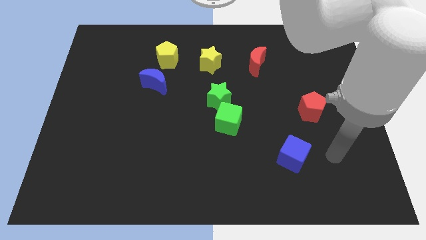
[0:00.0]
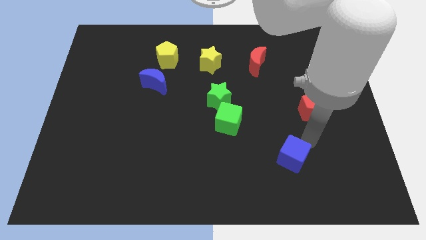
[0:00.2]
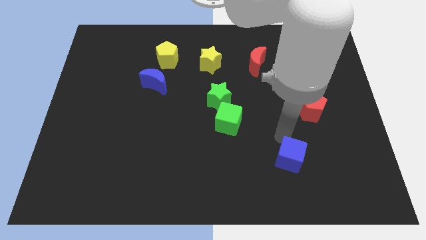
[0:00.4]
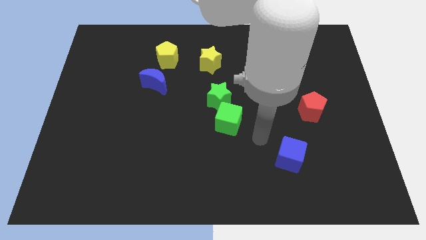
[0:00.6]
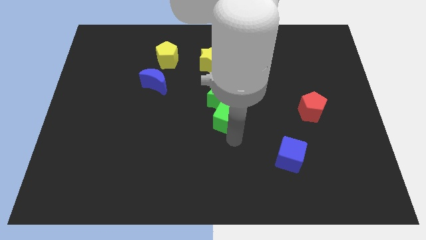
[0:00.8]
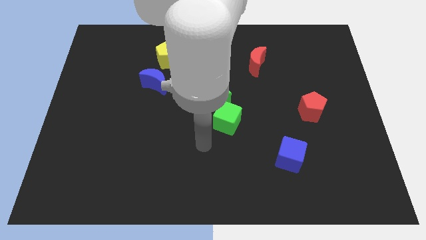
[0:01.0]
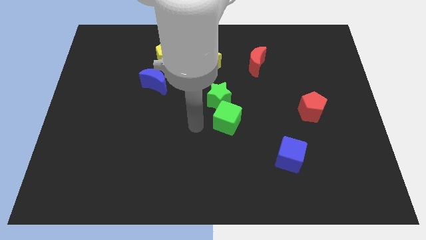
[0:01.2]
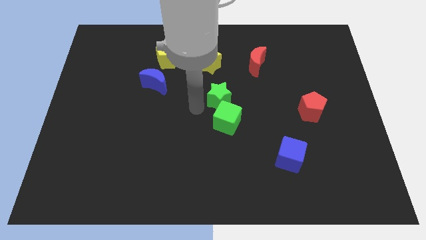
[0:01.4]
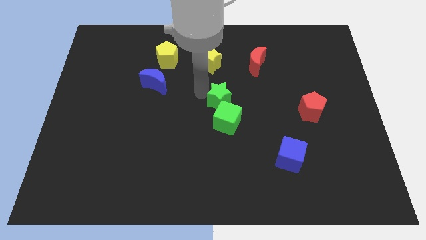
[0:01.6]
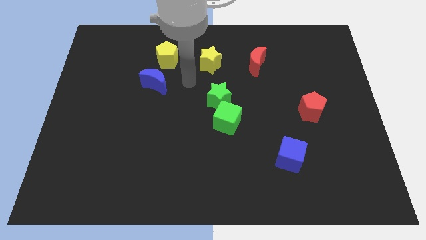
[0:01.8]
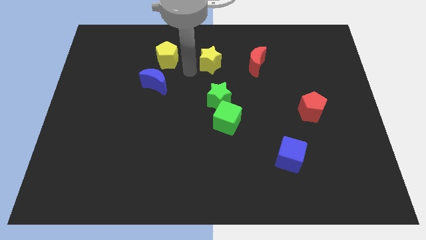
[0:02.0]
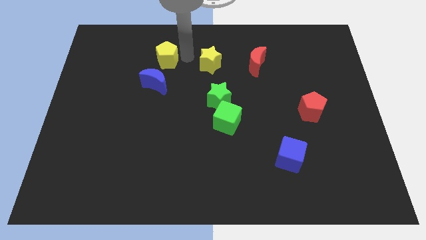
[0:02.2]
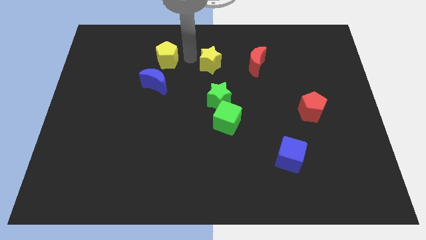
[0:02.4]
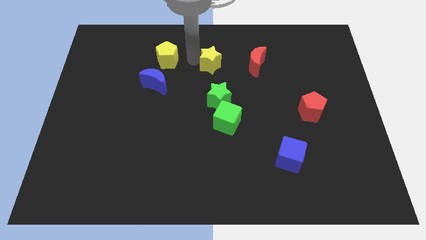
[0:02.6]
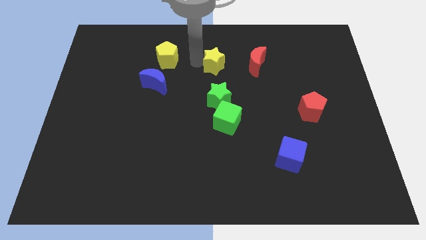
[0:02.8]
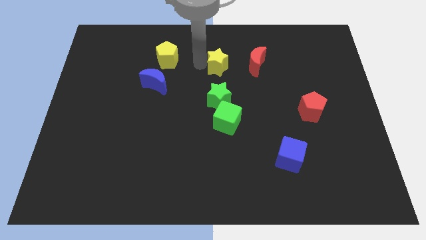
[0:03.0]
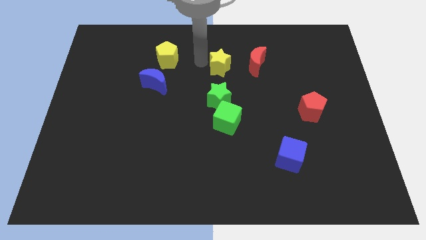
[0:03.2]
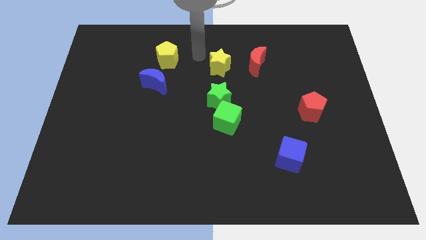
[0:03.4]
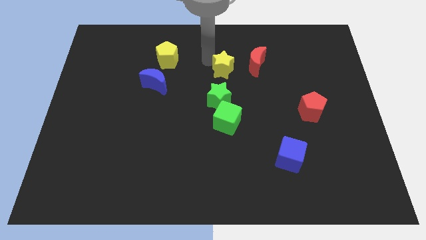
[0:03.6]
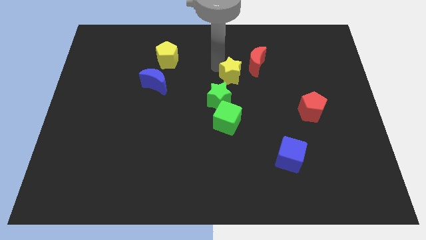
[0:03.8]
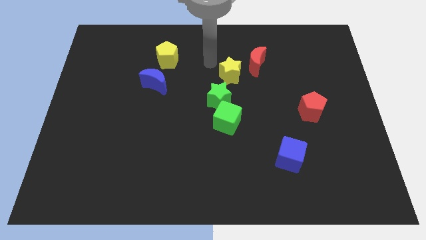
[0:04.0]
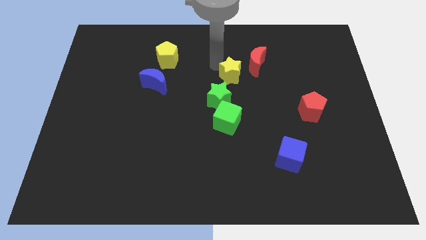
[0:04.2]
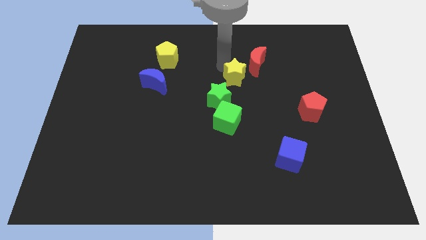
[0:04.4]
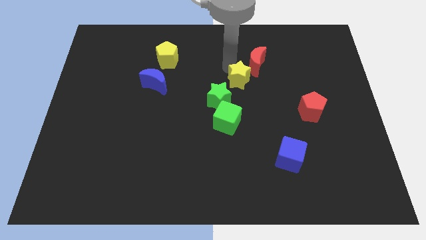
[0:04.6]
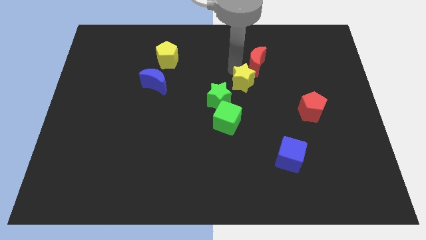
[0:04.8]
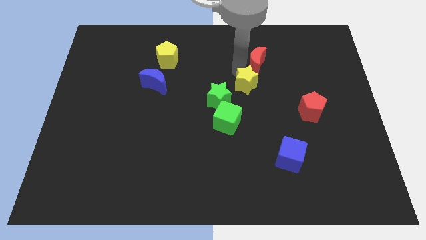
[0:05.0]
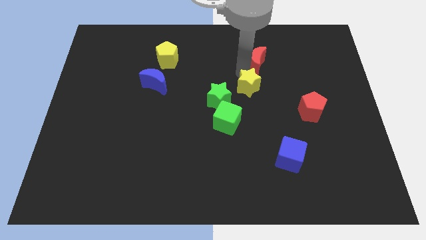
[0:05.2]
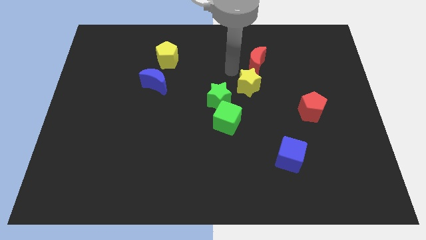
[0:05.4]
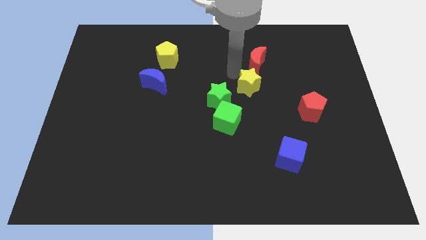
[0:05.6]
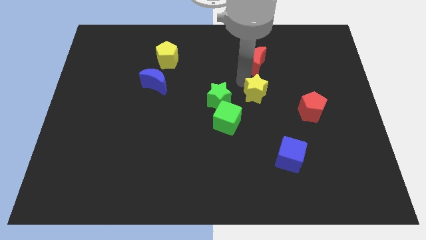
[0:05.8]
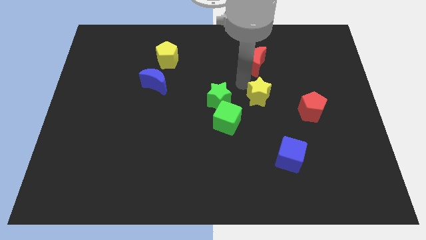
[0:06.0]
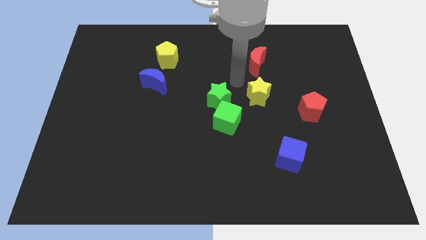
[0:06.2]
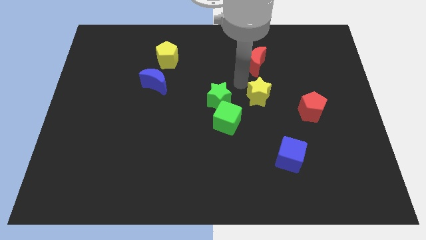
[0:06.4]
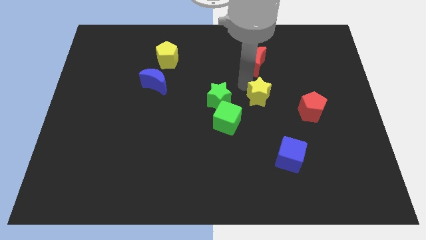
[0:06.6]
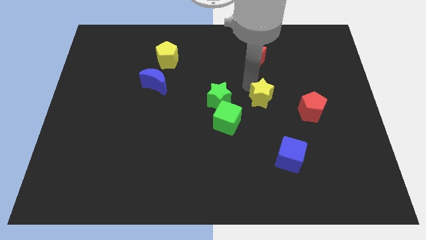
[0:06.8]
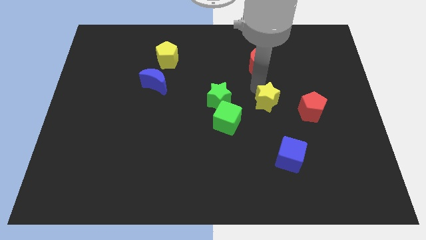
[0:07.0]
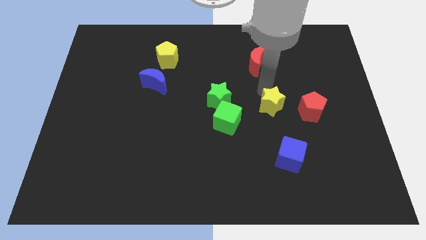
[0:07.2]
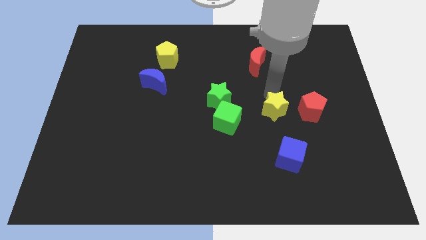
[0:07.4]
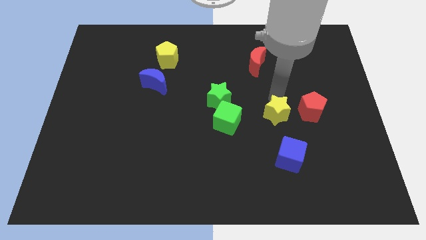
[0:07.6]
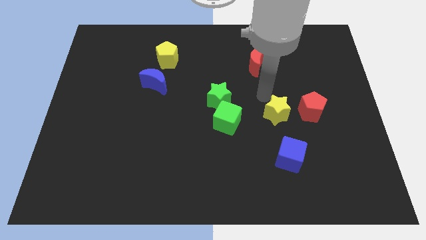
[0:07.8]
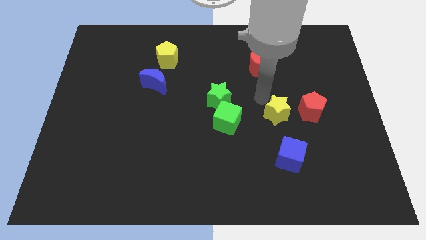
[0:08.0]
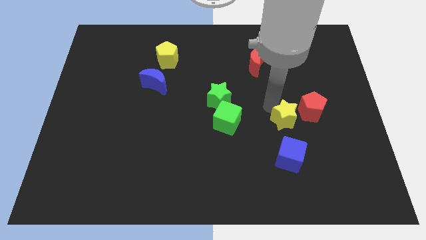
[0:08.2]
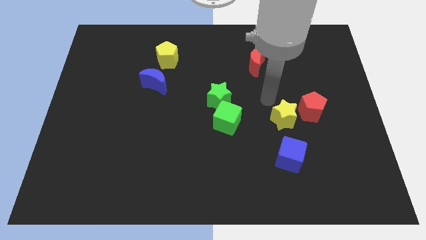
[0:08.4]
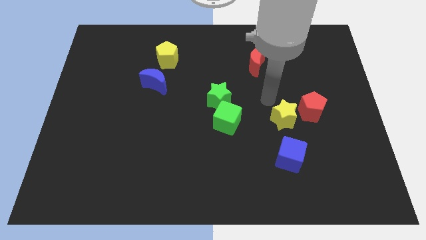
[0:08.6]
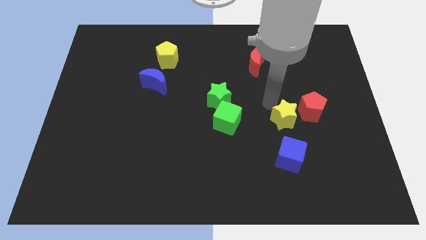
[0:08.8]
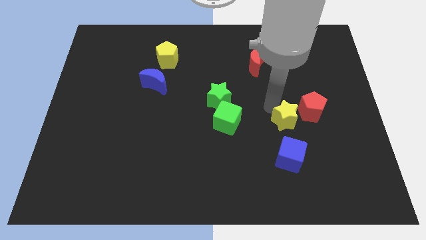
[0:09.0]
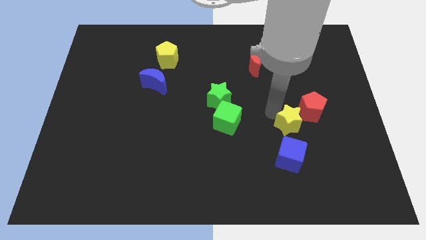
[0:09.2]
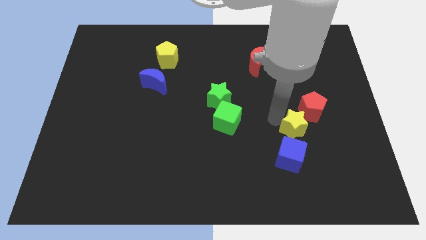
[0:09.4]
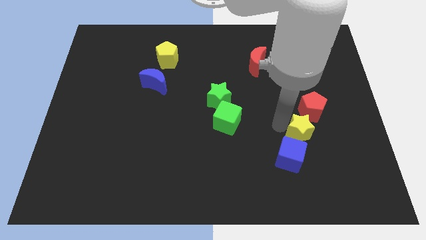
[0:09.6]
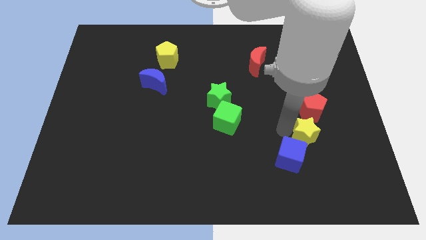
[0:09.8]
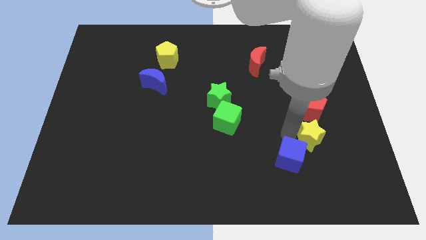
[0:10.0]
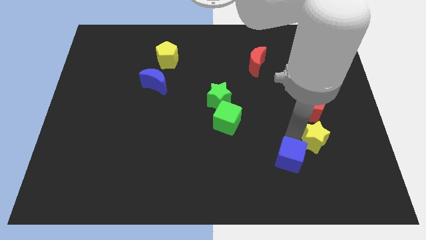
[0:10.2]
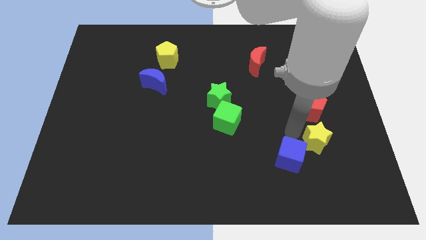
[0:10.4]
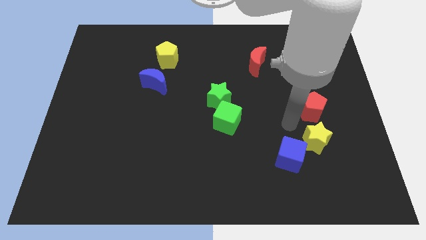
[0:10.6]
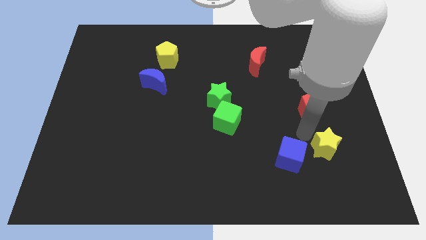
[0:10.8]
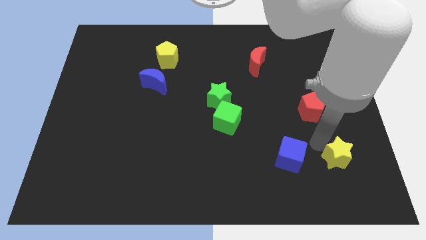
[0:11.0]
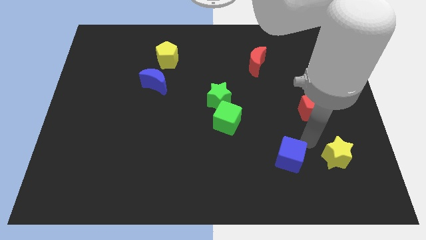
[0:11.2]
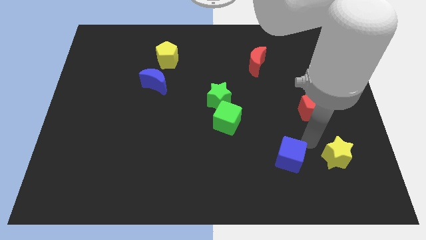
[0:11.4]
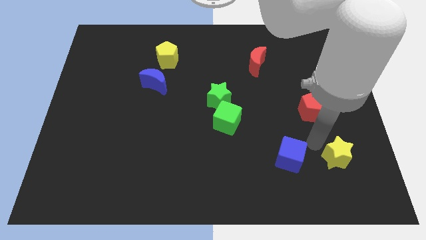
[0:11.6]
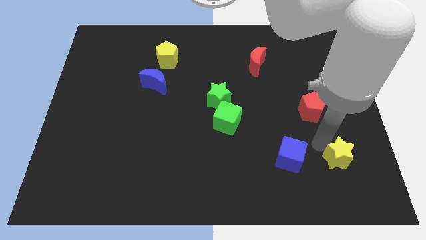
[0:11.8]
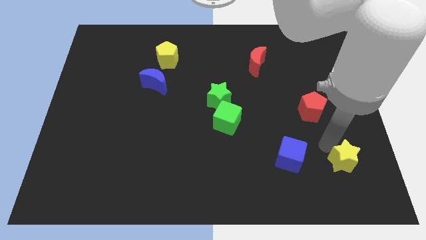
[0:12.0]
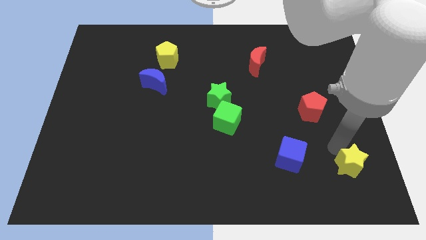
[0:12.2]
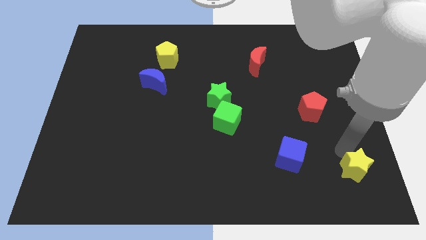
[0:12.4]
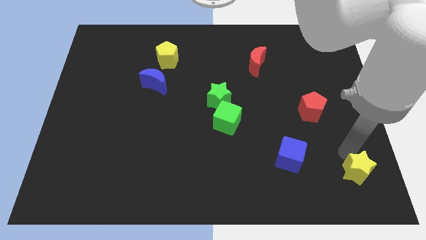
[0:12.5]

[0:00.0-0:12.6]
put the yellow star to the bottom right corner
